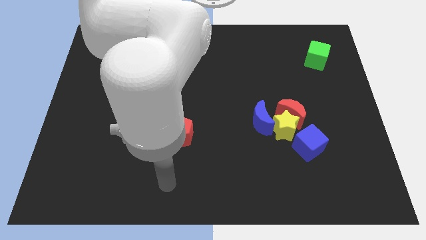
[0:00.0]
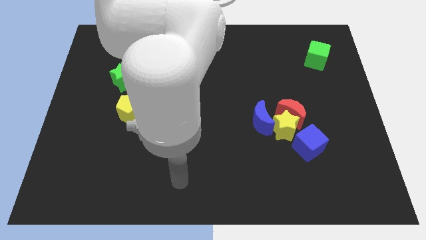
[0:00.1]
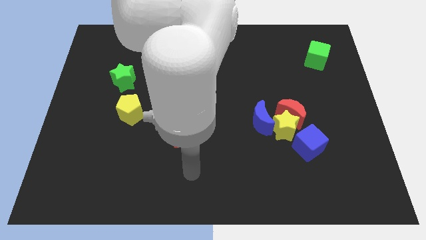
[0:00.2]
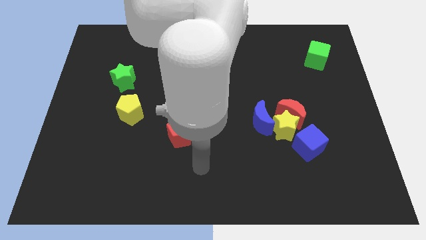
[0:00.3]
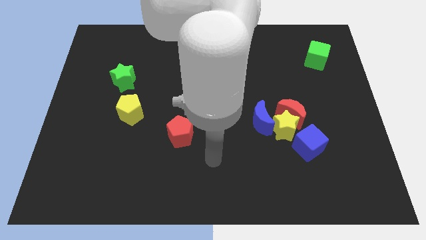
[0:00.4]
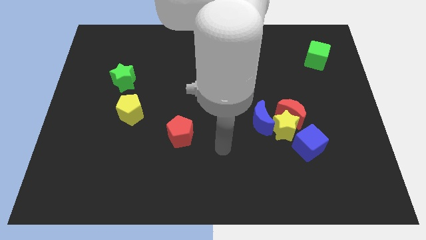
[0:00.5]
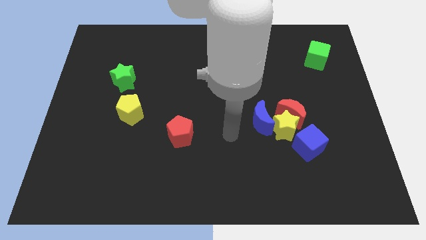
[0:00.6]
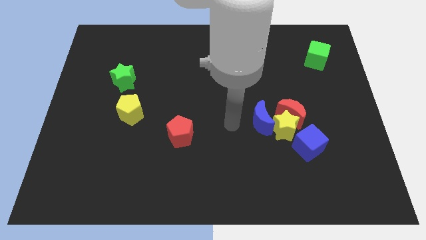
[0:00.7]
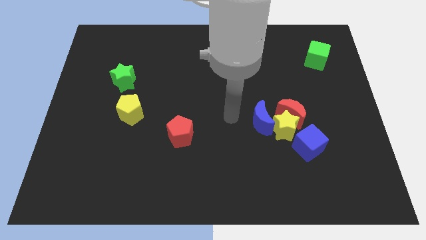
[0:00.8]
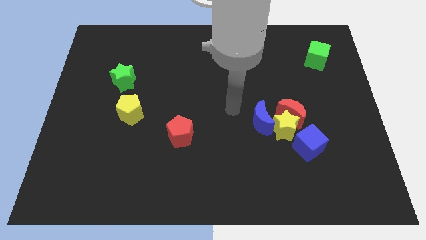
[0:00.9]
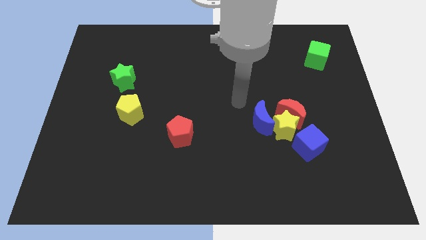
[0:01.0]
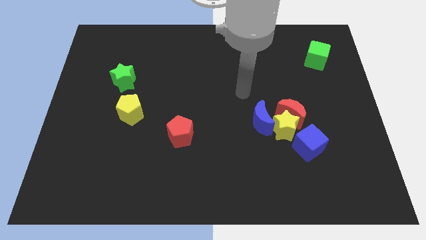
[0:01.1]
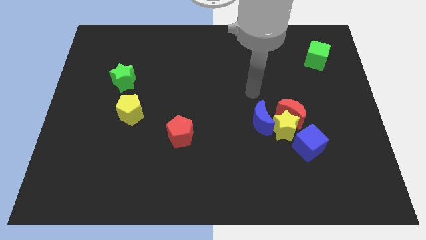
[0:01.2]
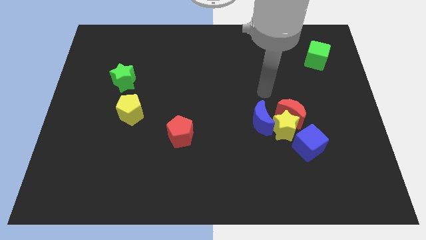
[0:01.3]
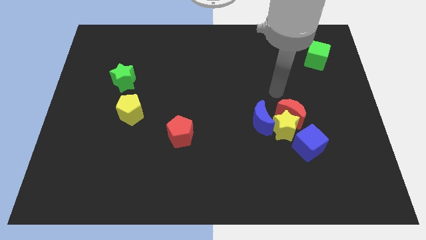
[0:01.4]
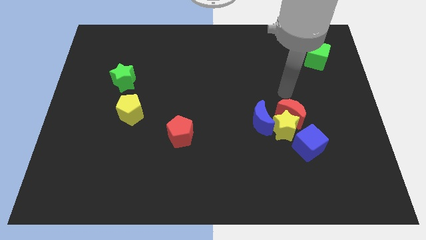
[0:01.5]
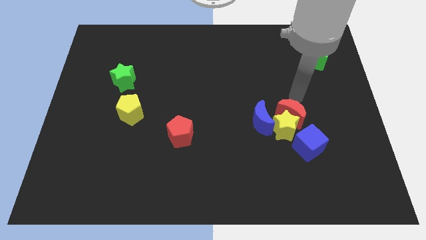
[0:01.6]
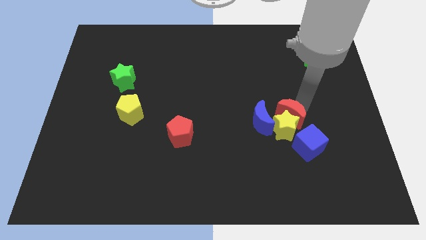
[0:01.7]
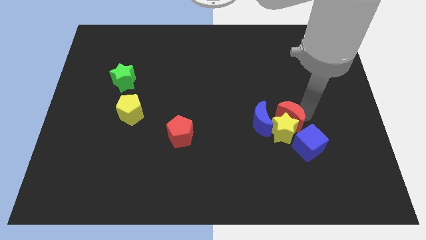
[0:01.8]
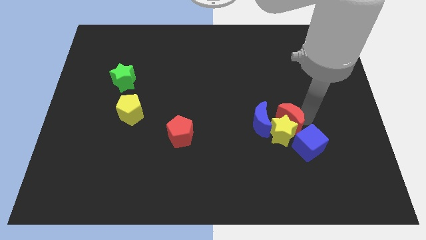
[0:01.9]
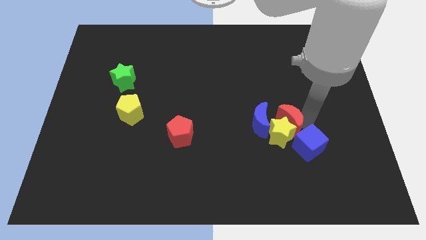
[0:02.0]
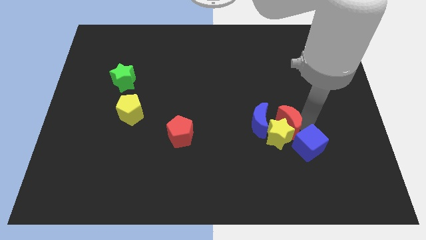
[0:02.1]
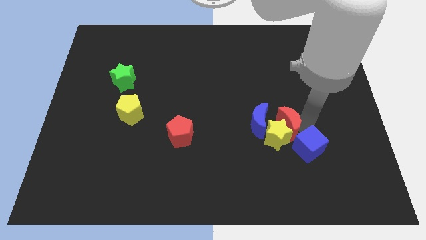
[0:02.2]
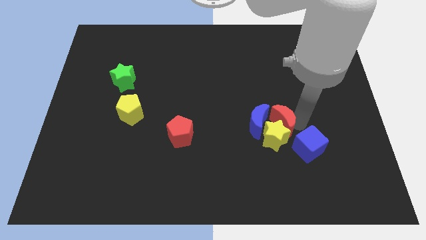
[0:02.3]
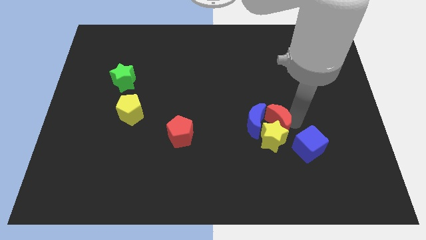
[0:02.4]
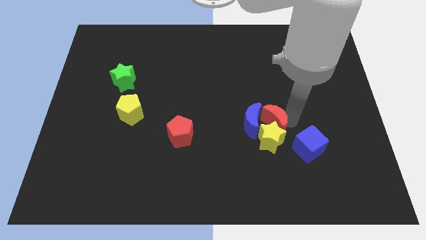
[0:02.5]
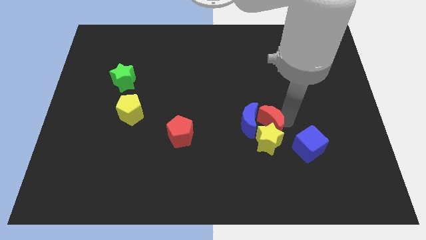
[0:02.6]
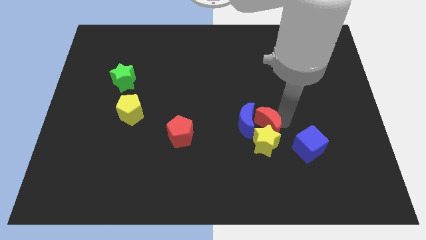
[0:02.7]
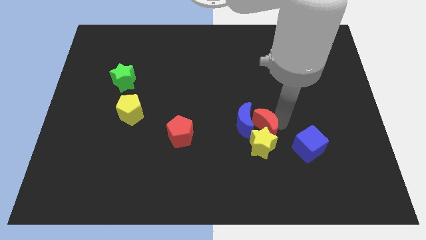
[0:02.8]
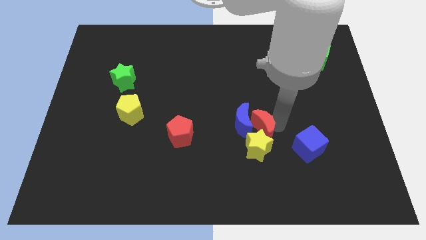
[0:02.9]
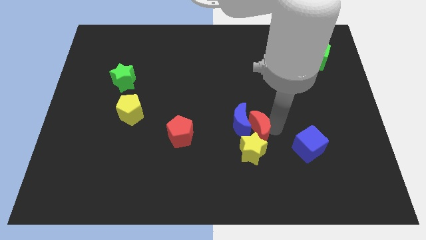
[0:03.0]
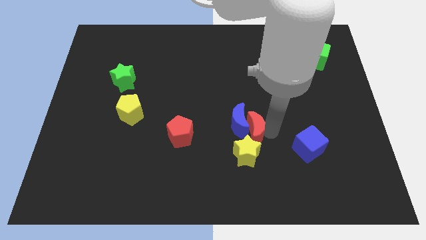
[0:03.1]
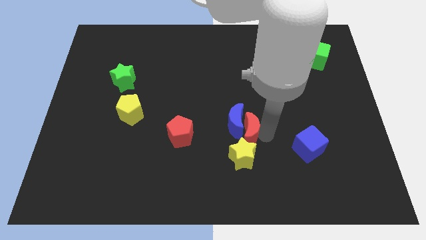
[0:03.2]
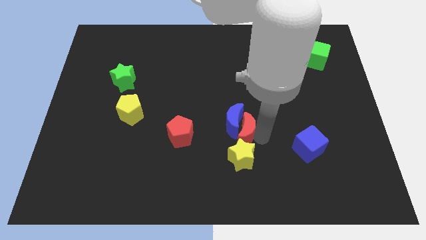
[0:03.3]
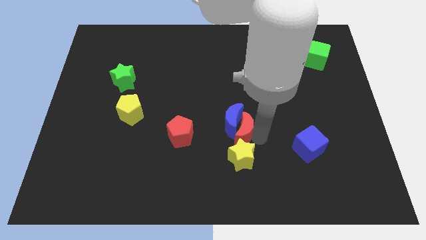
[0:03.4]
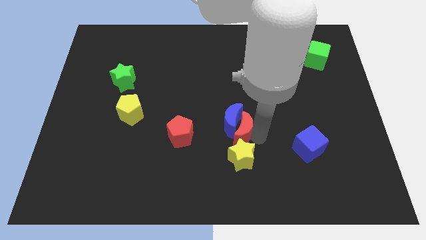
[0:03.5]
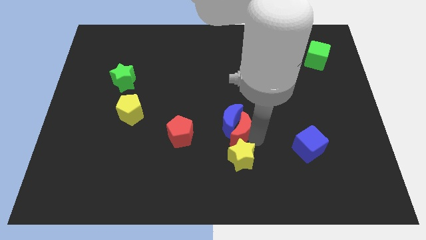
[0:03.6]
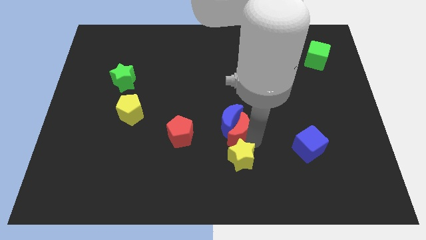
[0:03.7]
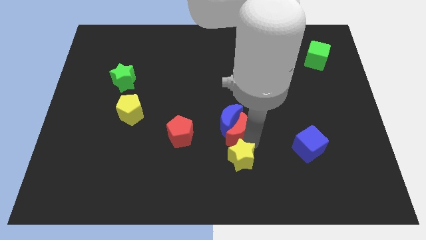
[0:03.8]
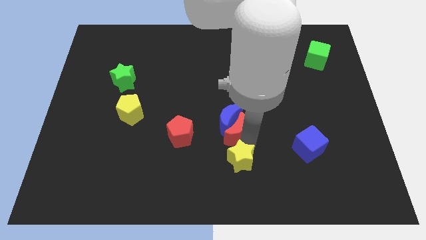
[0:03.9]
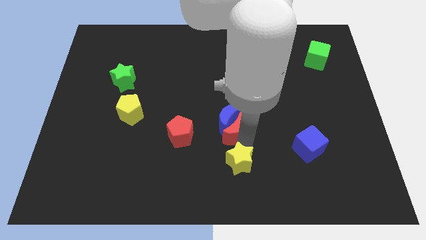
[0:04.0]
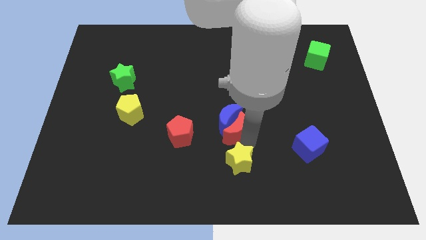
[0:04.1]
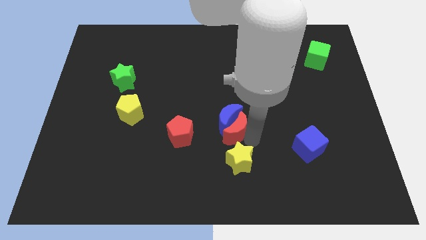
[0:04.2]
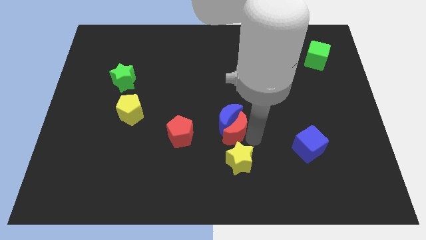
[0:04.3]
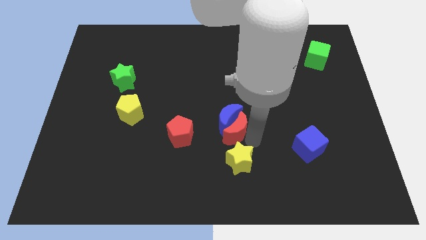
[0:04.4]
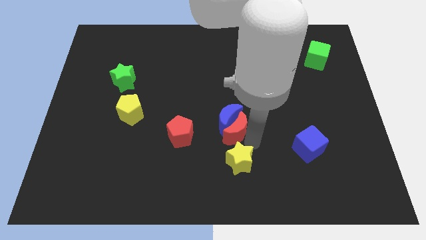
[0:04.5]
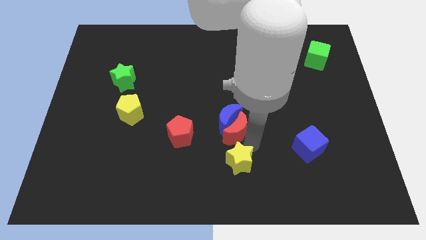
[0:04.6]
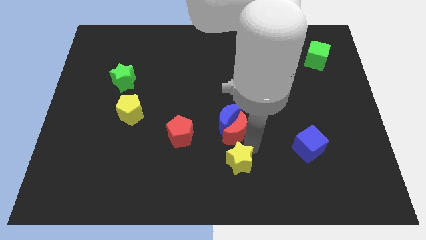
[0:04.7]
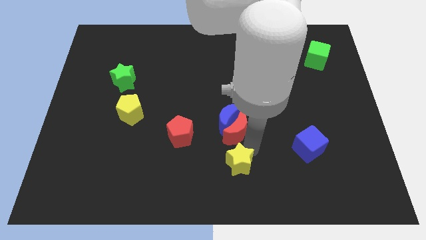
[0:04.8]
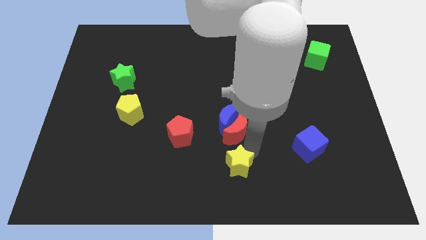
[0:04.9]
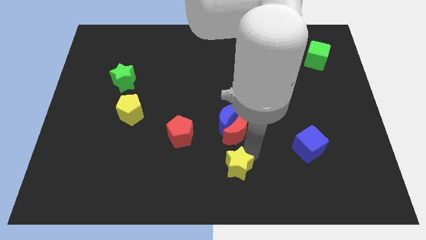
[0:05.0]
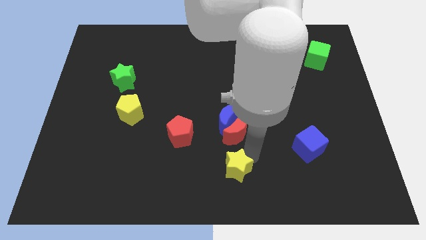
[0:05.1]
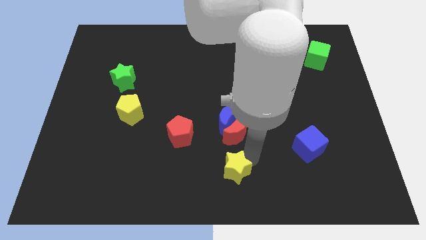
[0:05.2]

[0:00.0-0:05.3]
pull the yellow star apart from the group of blocks

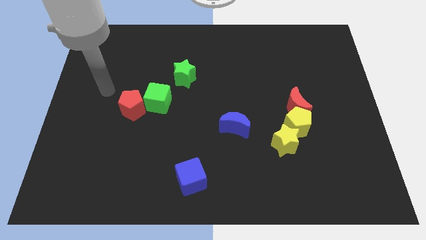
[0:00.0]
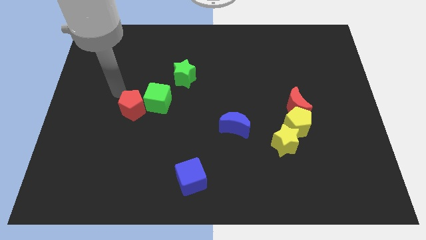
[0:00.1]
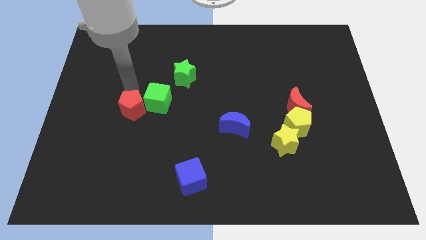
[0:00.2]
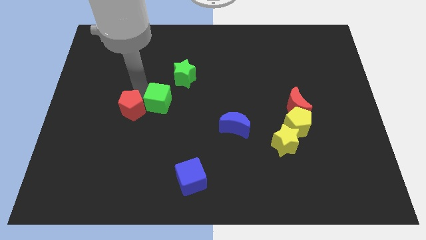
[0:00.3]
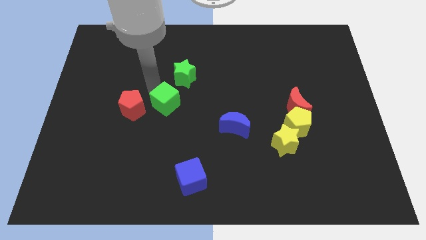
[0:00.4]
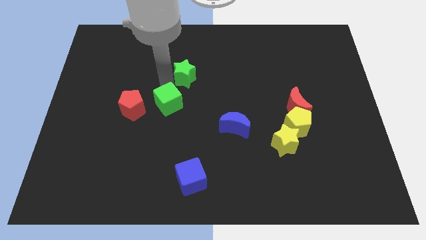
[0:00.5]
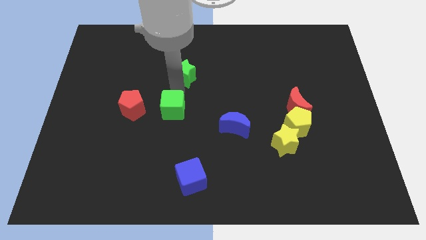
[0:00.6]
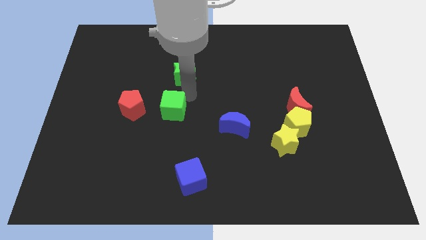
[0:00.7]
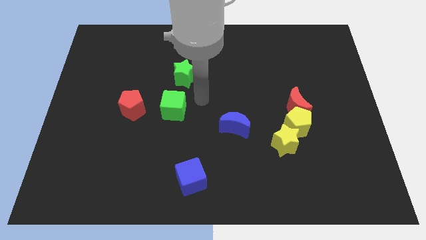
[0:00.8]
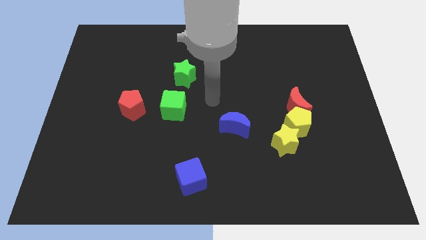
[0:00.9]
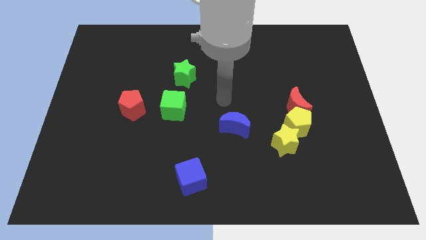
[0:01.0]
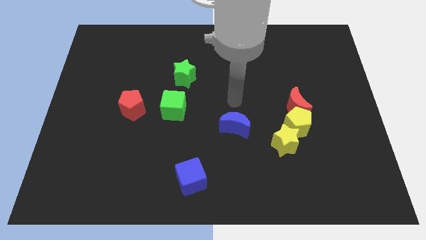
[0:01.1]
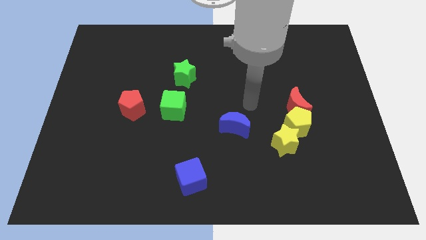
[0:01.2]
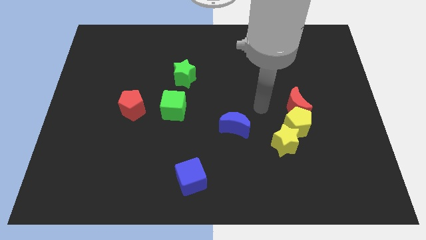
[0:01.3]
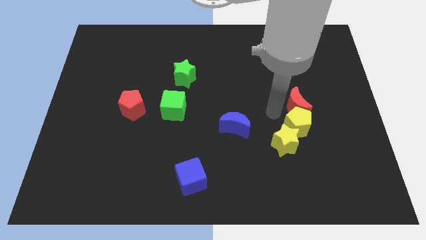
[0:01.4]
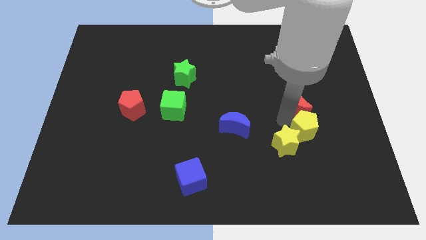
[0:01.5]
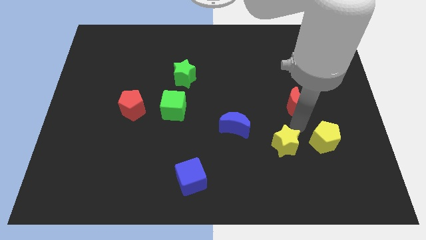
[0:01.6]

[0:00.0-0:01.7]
pull the red moon apart from the yellow pentagon

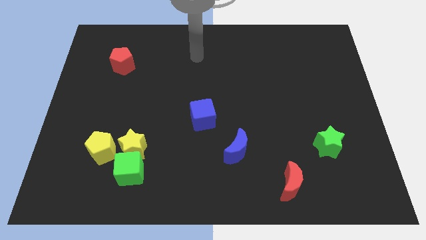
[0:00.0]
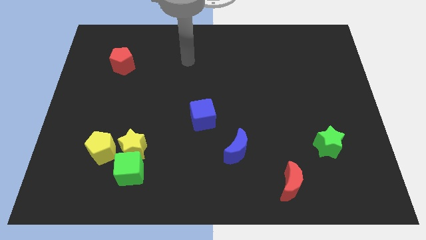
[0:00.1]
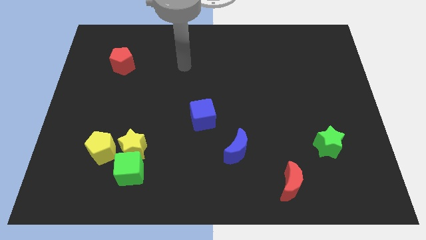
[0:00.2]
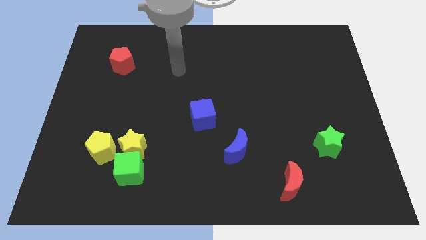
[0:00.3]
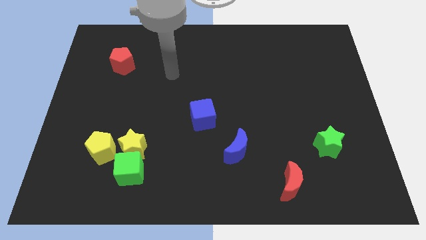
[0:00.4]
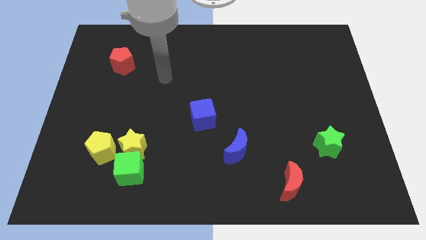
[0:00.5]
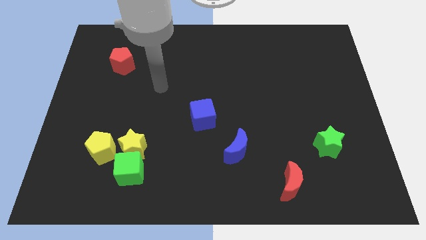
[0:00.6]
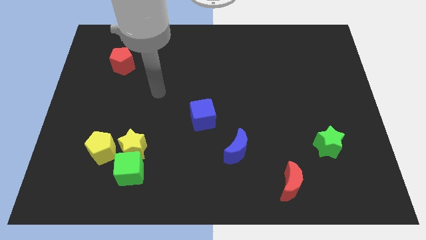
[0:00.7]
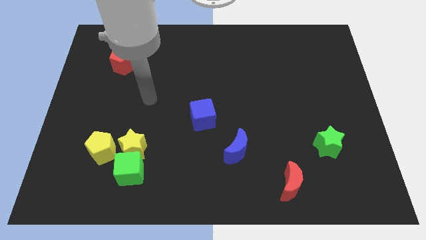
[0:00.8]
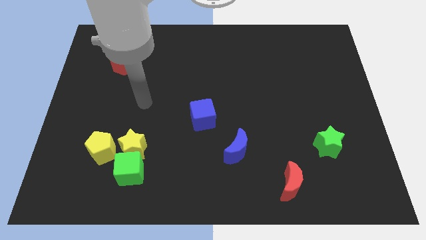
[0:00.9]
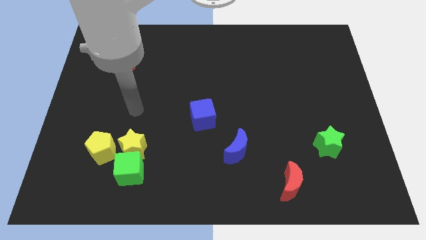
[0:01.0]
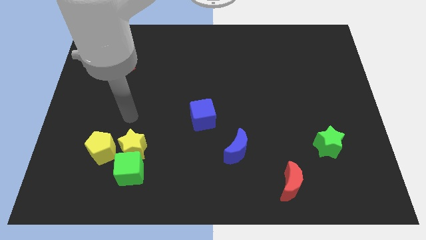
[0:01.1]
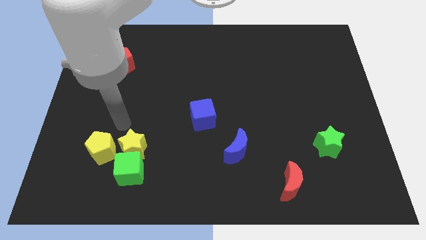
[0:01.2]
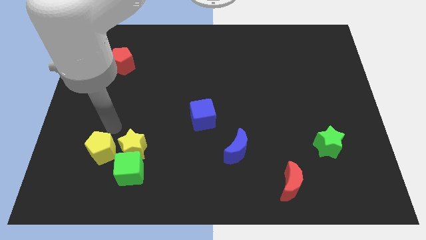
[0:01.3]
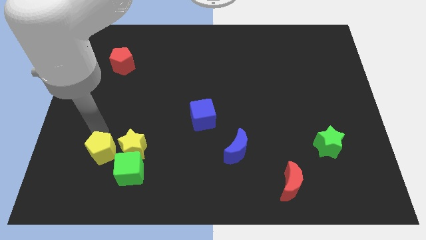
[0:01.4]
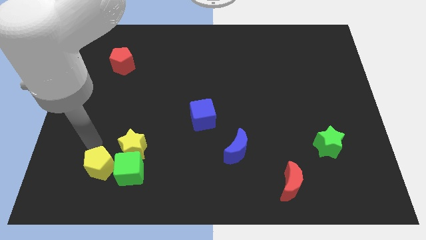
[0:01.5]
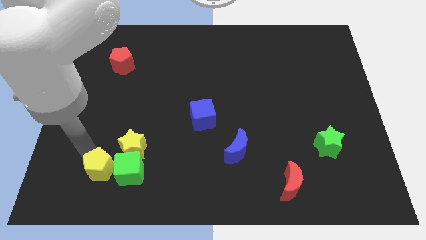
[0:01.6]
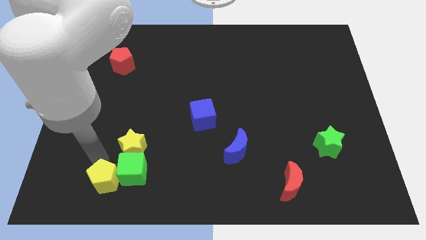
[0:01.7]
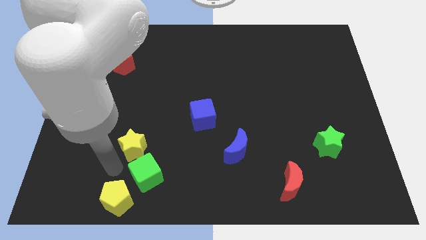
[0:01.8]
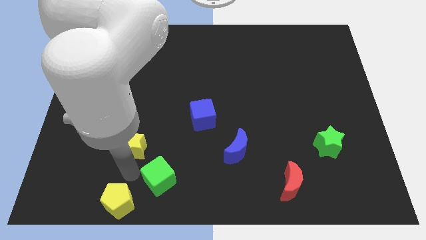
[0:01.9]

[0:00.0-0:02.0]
move the yellow star away from the green cube and yellow pentagon

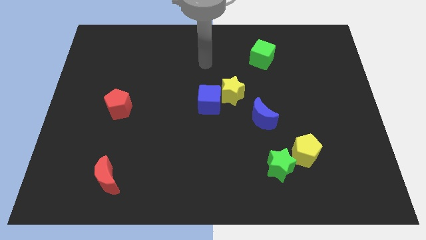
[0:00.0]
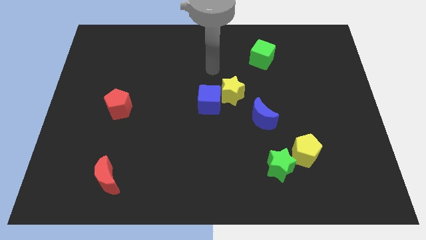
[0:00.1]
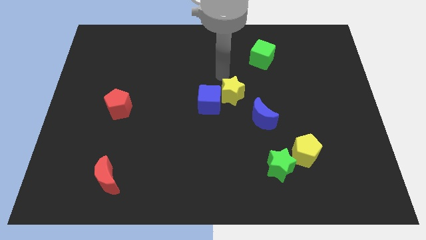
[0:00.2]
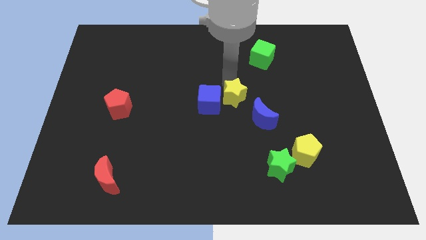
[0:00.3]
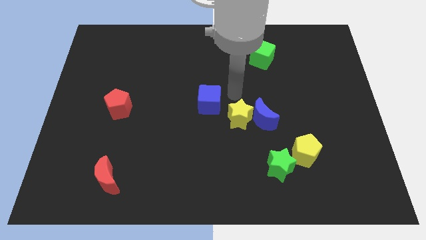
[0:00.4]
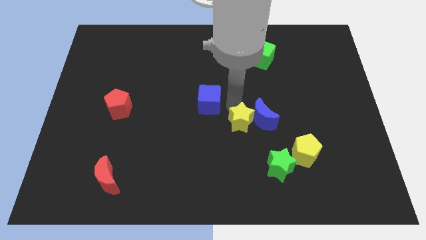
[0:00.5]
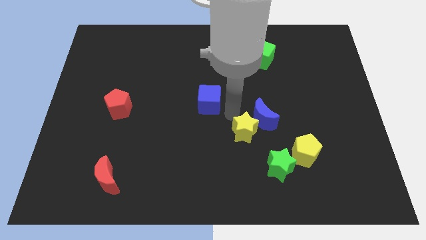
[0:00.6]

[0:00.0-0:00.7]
separate the blue cube from the yellow star
